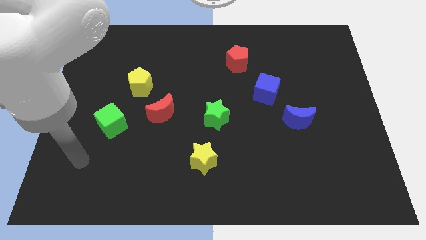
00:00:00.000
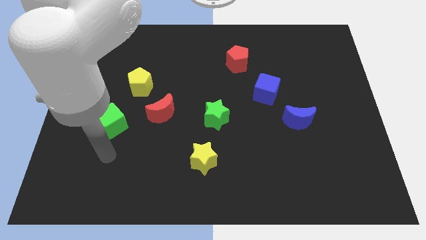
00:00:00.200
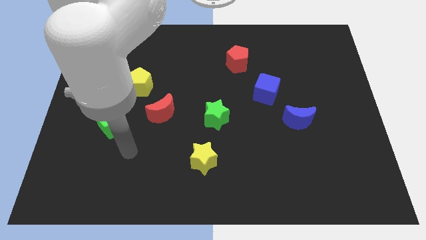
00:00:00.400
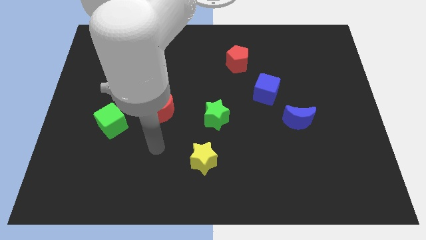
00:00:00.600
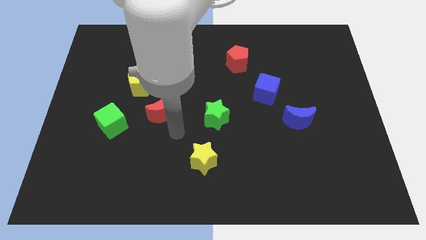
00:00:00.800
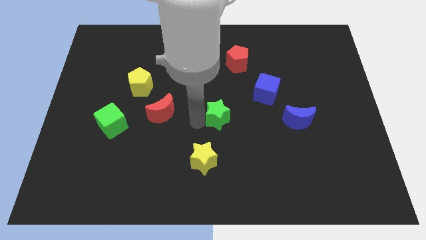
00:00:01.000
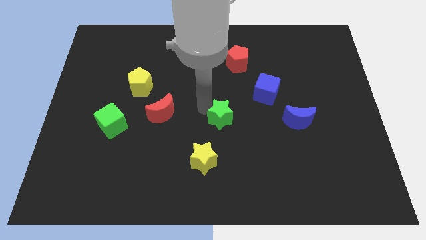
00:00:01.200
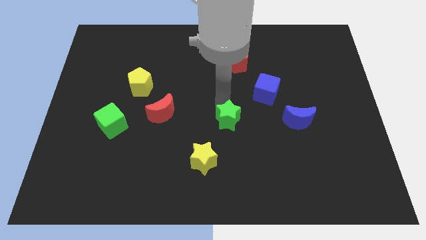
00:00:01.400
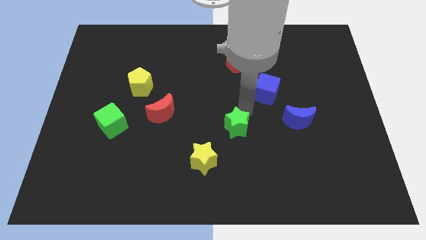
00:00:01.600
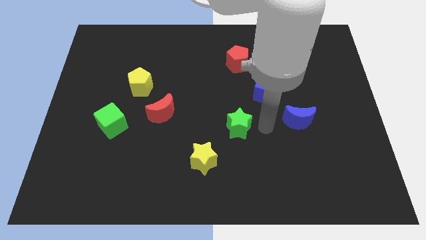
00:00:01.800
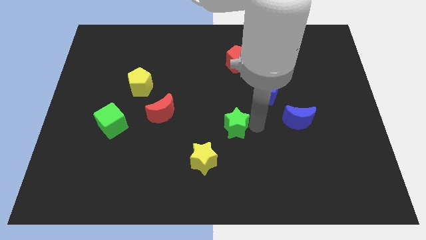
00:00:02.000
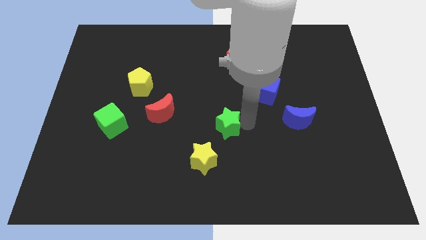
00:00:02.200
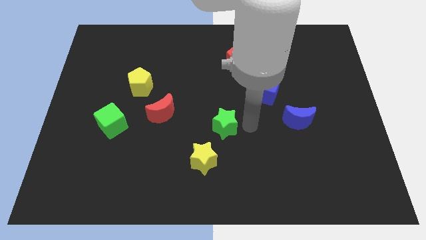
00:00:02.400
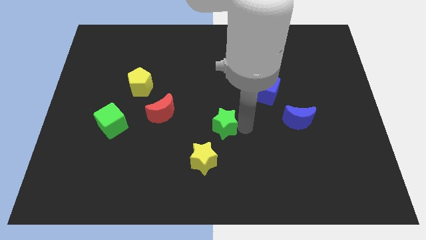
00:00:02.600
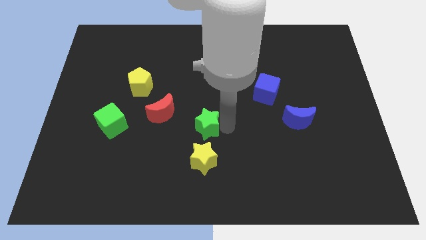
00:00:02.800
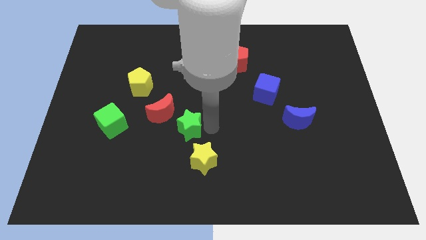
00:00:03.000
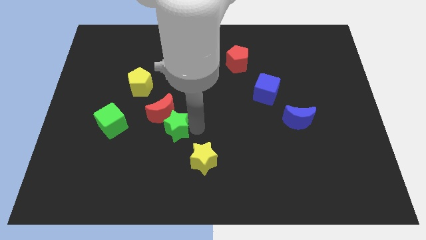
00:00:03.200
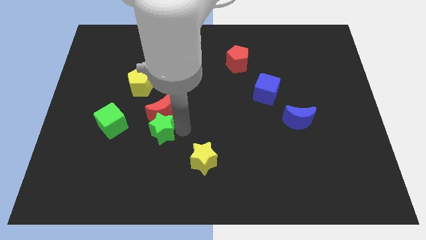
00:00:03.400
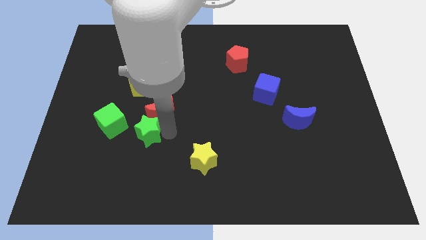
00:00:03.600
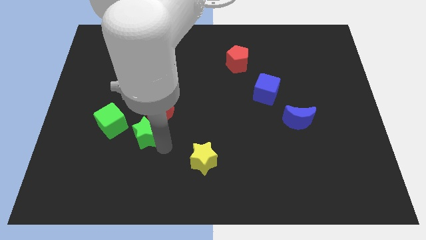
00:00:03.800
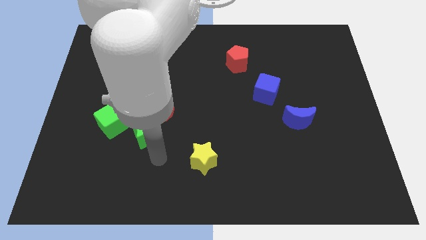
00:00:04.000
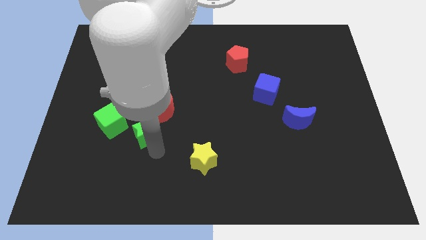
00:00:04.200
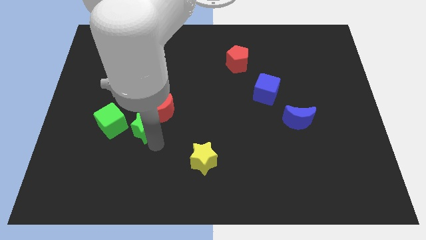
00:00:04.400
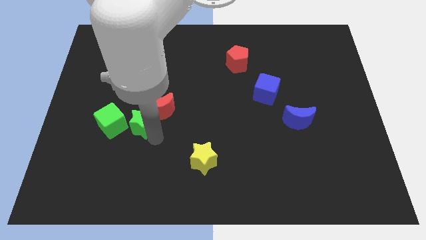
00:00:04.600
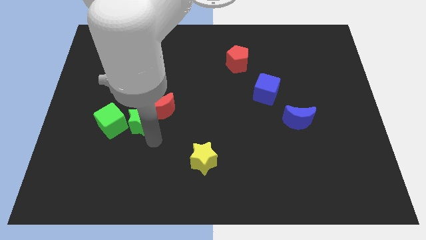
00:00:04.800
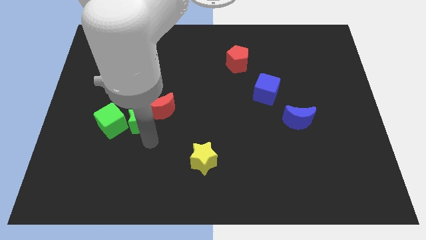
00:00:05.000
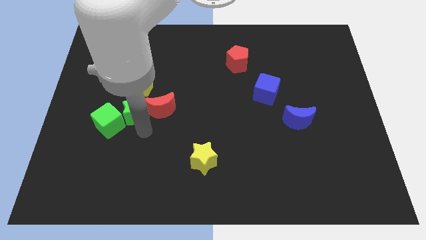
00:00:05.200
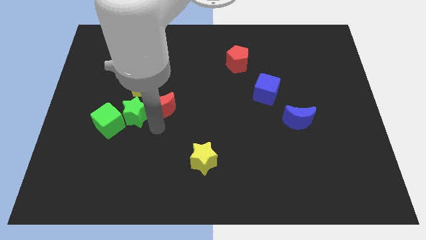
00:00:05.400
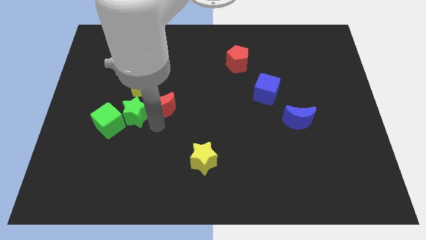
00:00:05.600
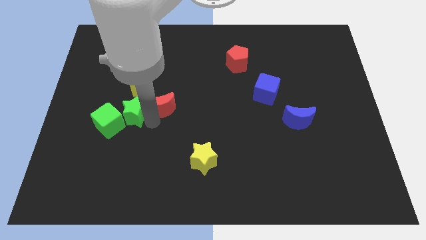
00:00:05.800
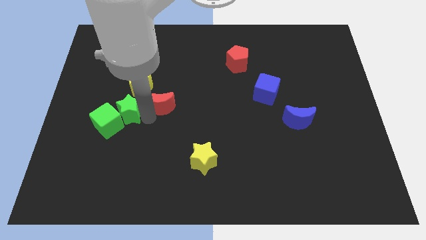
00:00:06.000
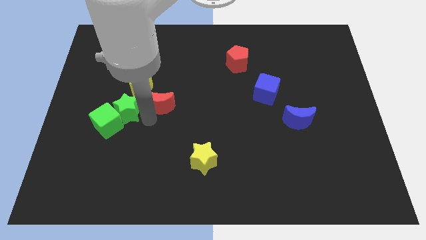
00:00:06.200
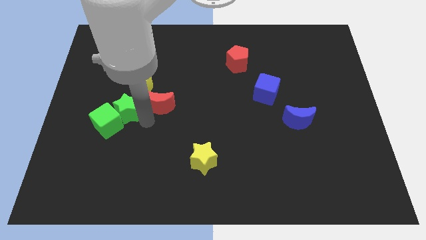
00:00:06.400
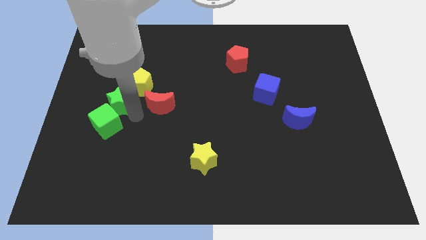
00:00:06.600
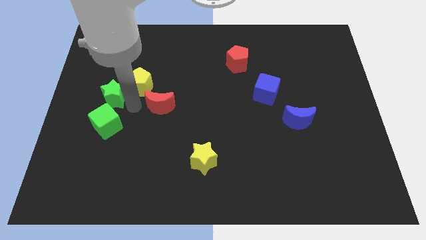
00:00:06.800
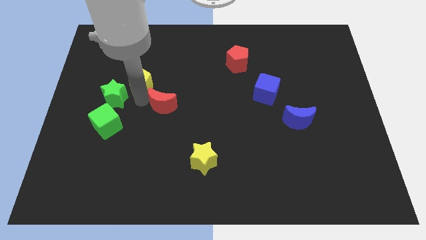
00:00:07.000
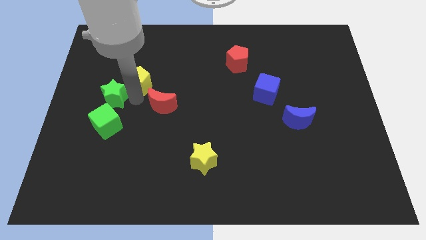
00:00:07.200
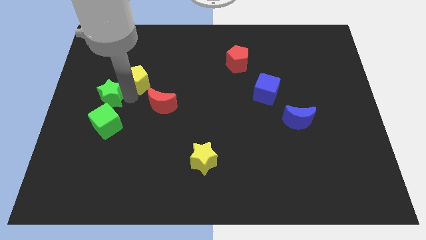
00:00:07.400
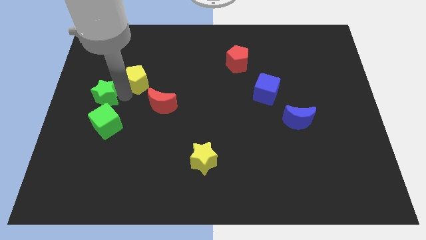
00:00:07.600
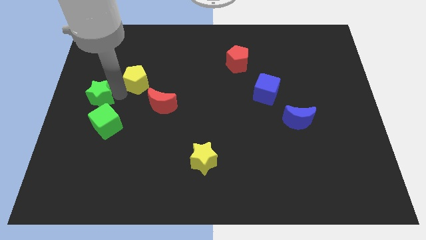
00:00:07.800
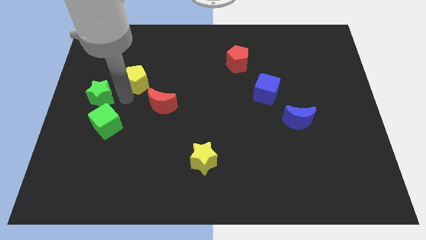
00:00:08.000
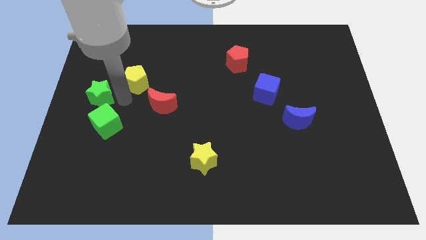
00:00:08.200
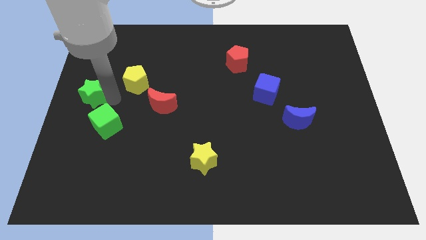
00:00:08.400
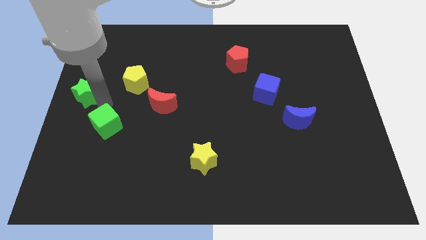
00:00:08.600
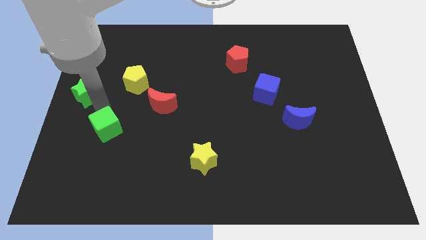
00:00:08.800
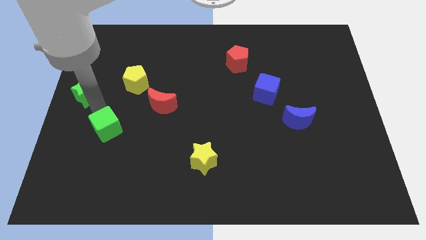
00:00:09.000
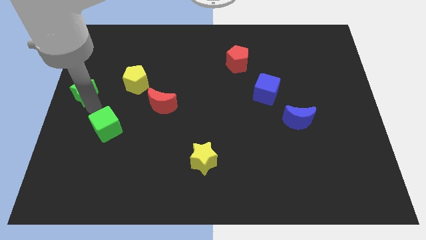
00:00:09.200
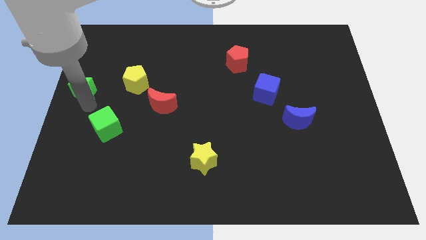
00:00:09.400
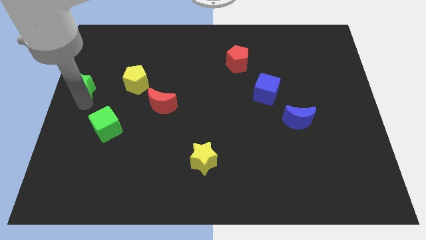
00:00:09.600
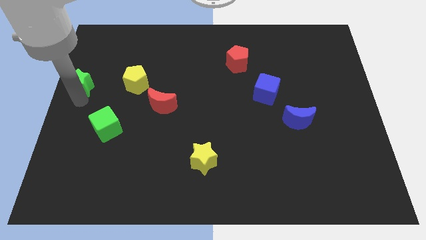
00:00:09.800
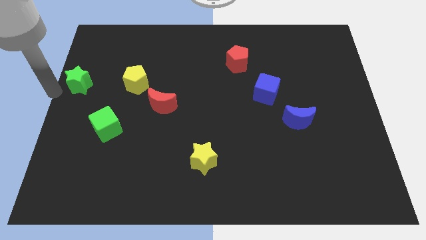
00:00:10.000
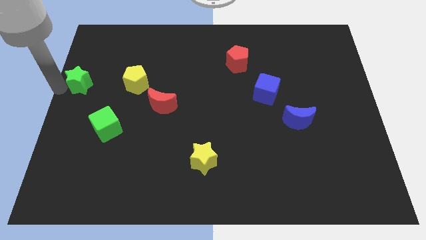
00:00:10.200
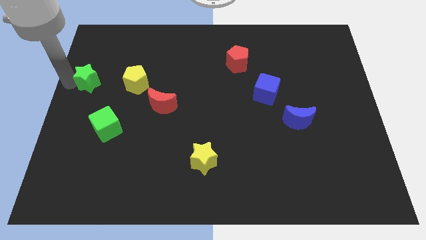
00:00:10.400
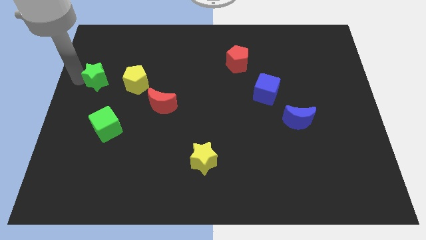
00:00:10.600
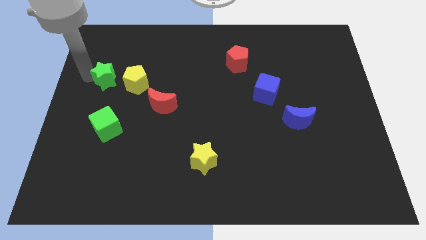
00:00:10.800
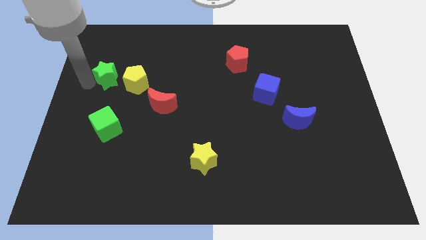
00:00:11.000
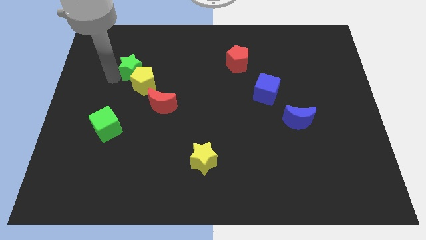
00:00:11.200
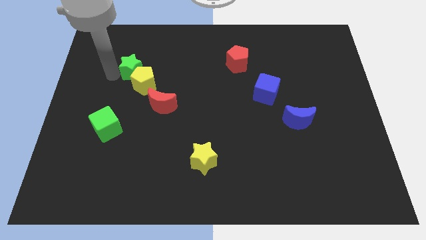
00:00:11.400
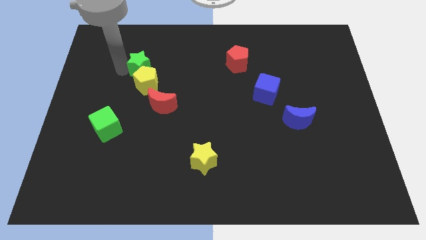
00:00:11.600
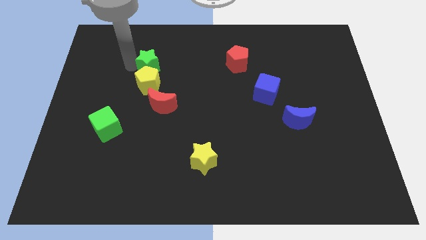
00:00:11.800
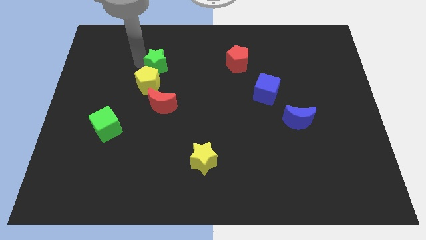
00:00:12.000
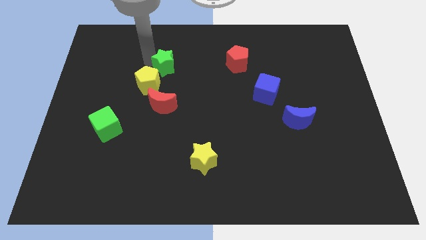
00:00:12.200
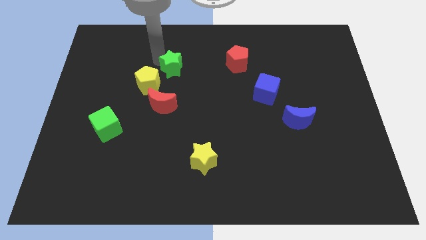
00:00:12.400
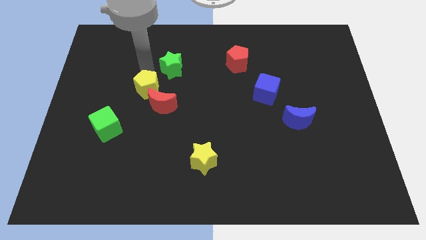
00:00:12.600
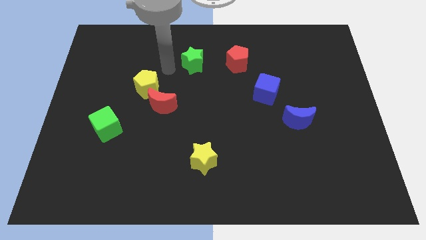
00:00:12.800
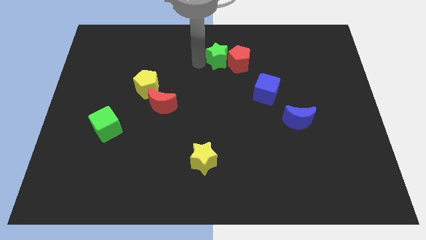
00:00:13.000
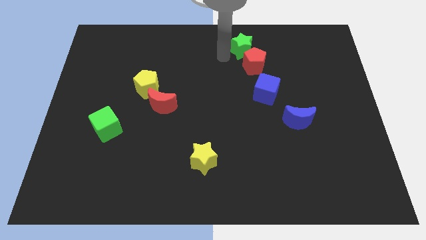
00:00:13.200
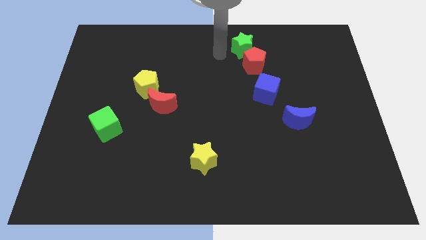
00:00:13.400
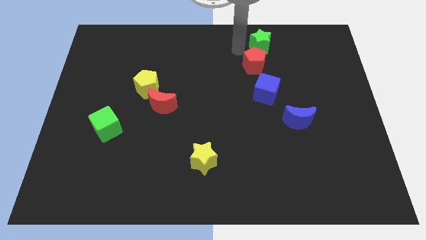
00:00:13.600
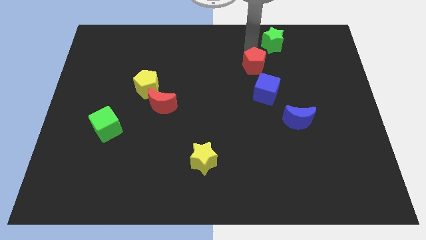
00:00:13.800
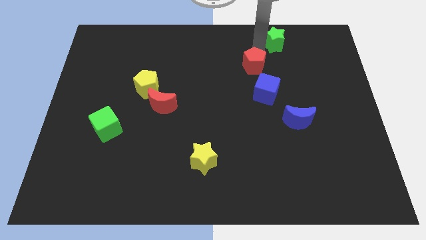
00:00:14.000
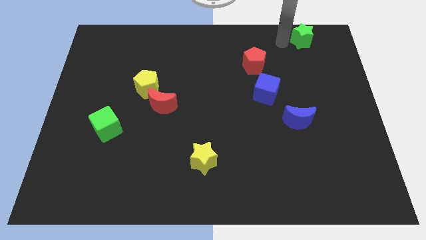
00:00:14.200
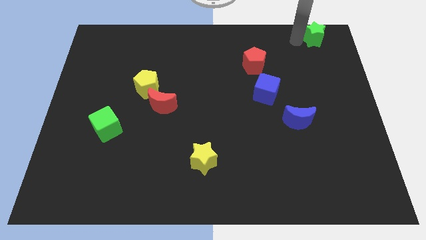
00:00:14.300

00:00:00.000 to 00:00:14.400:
push the green star to the upper right corner
